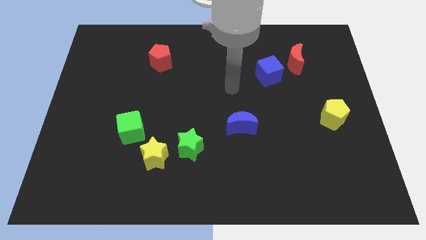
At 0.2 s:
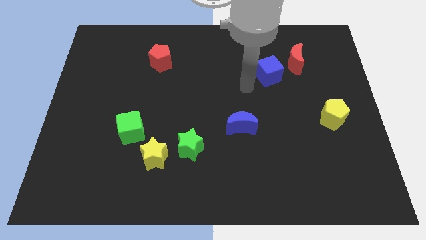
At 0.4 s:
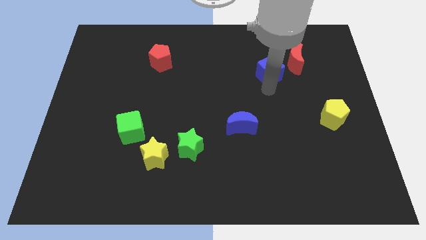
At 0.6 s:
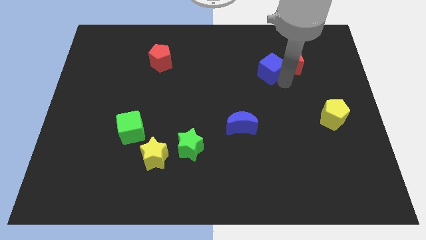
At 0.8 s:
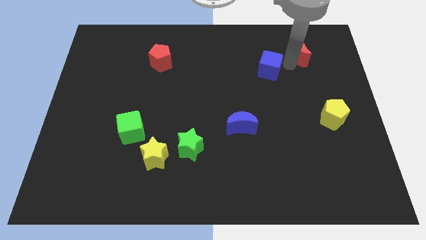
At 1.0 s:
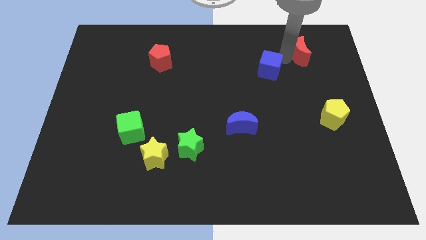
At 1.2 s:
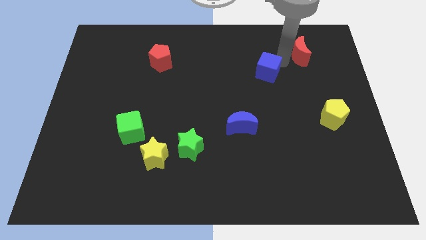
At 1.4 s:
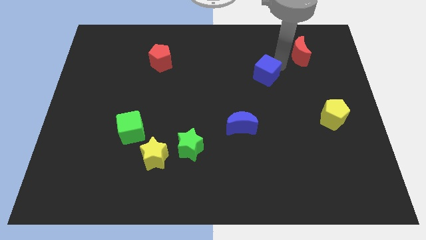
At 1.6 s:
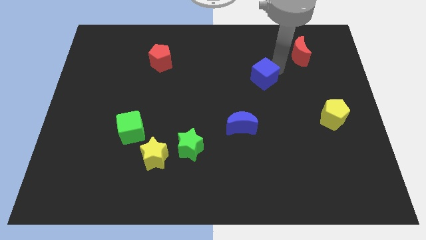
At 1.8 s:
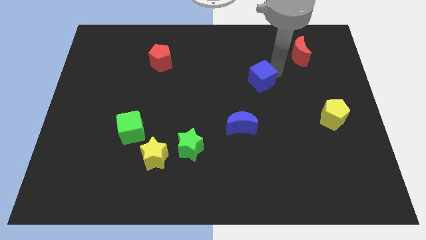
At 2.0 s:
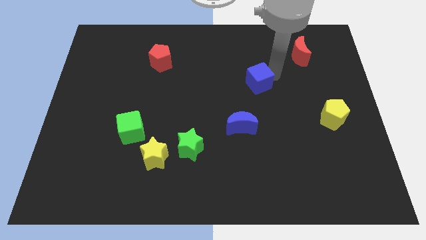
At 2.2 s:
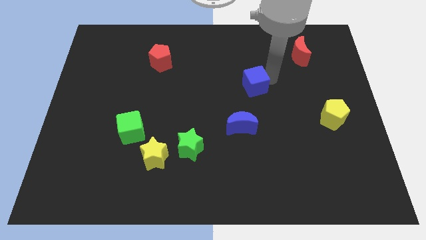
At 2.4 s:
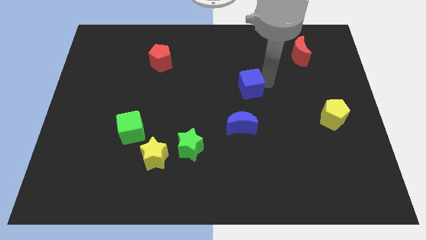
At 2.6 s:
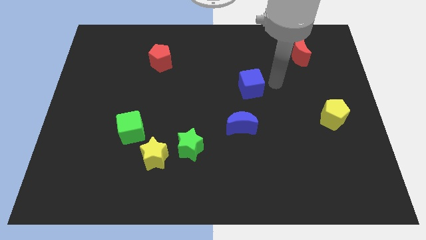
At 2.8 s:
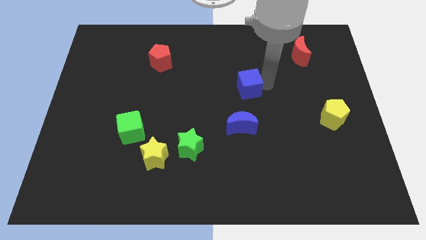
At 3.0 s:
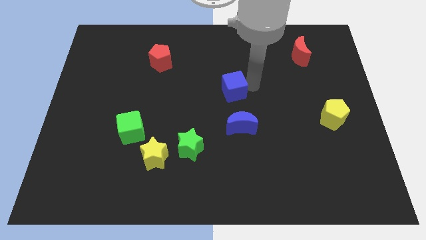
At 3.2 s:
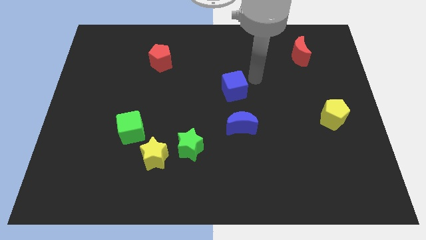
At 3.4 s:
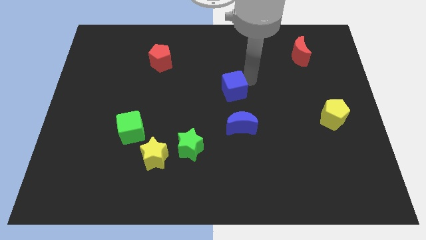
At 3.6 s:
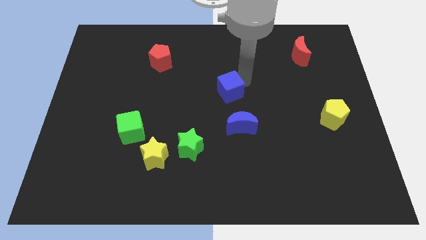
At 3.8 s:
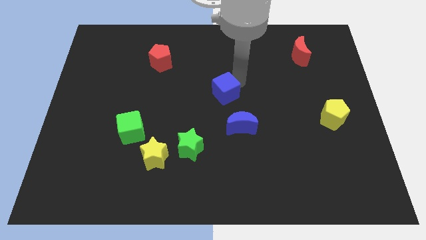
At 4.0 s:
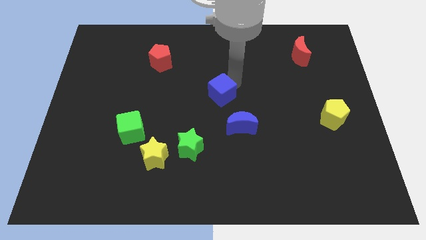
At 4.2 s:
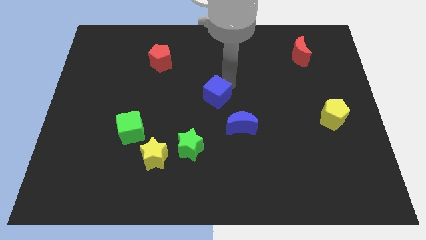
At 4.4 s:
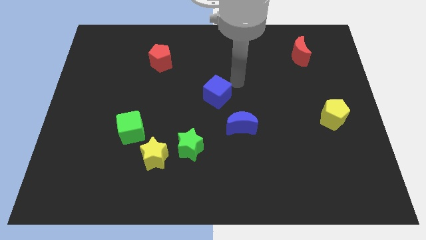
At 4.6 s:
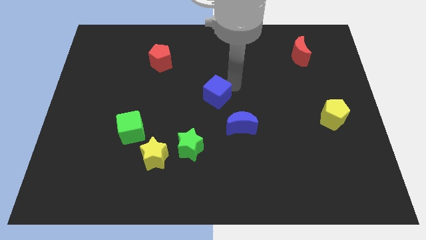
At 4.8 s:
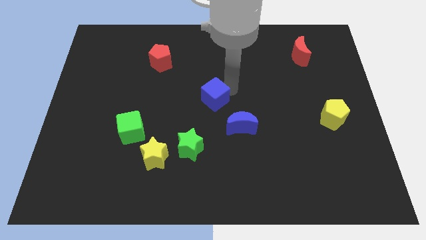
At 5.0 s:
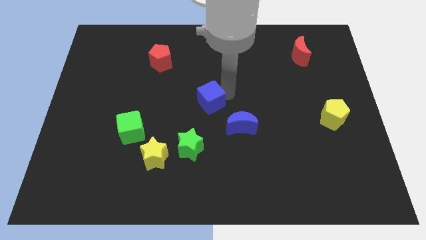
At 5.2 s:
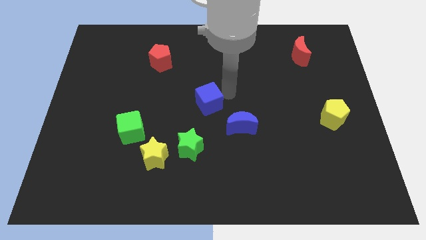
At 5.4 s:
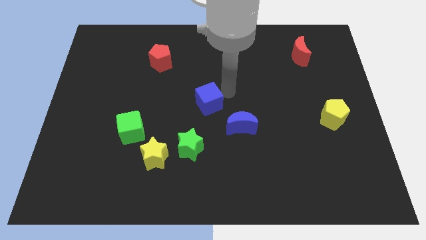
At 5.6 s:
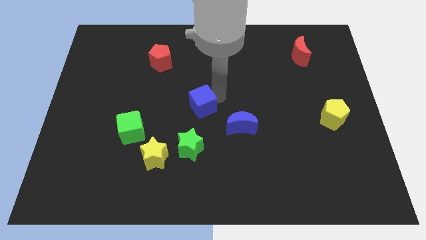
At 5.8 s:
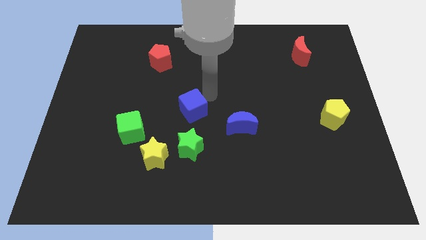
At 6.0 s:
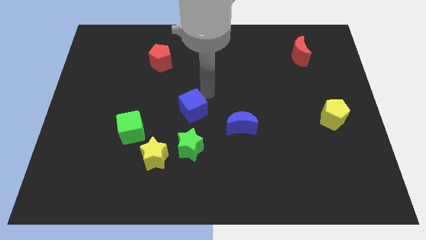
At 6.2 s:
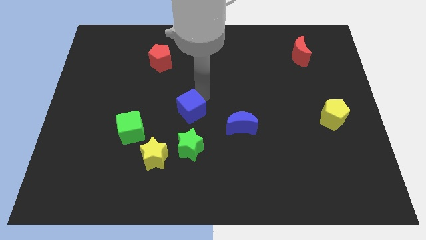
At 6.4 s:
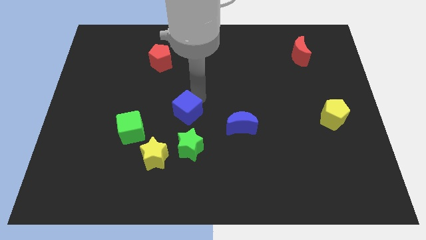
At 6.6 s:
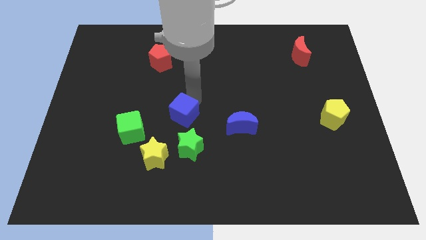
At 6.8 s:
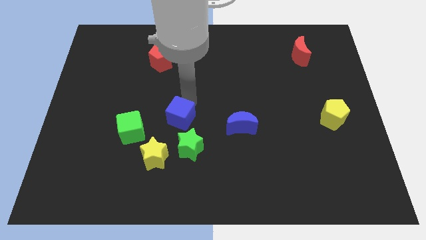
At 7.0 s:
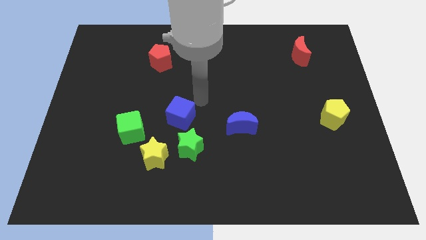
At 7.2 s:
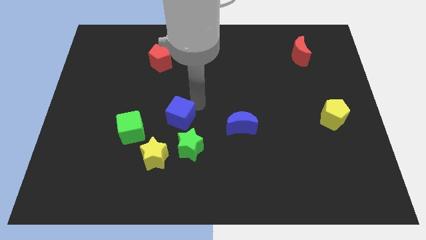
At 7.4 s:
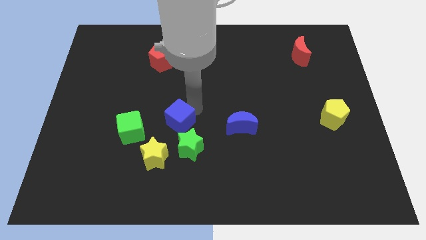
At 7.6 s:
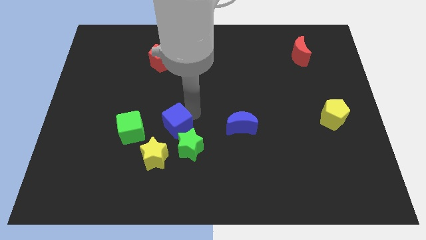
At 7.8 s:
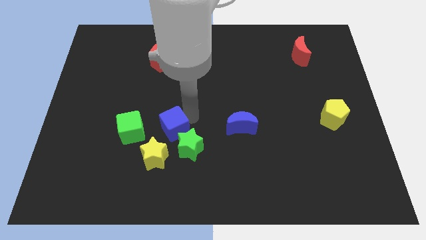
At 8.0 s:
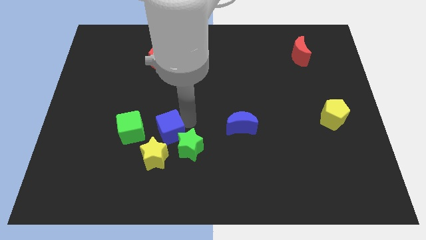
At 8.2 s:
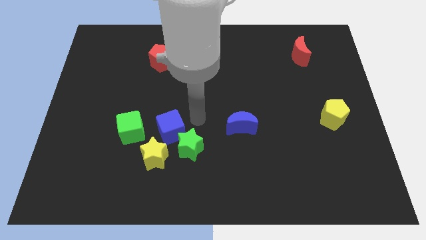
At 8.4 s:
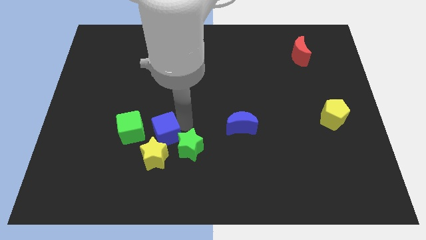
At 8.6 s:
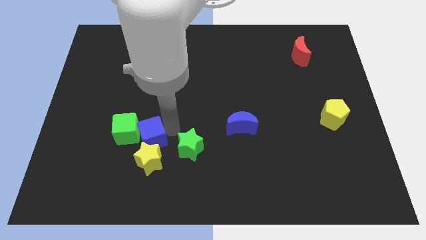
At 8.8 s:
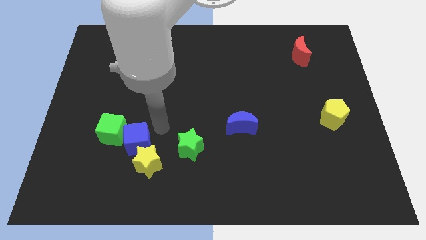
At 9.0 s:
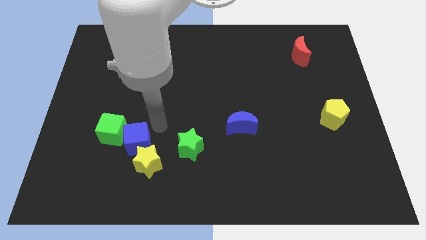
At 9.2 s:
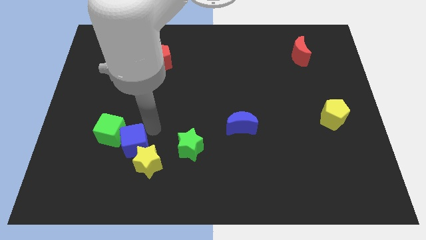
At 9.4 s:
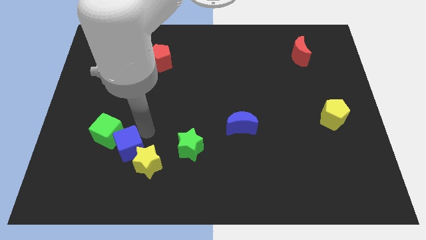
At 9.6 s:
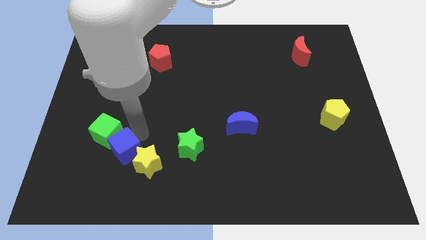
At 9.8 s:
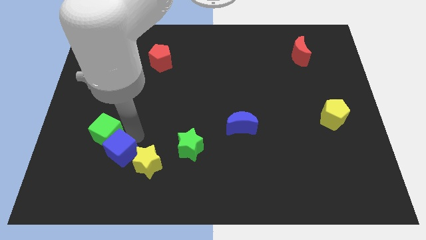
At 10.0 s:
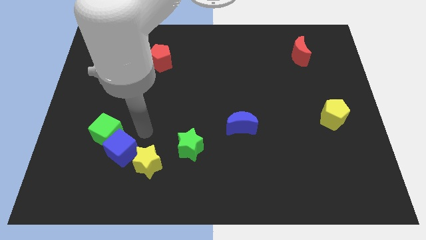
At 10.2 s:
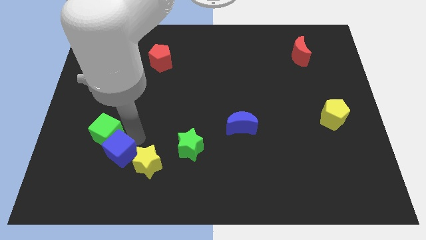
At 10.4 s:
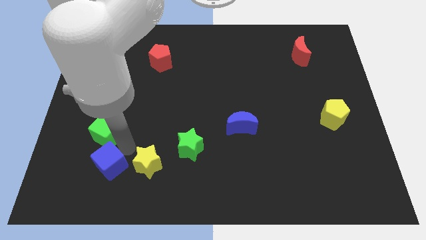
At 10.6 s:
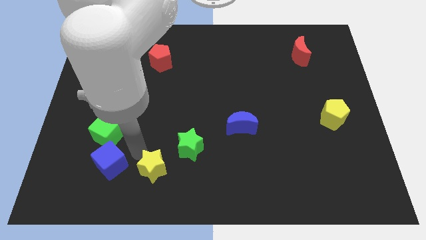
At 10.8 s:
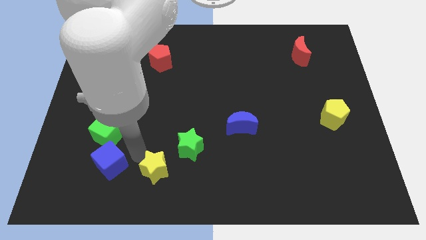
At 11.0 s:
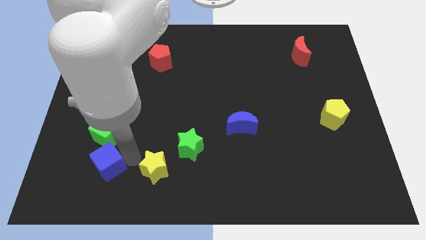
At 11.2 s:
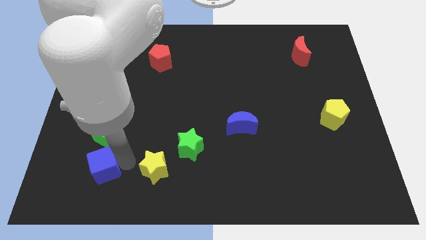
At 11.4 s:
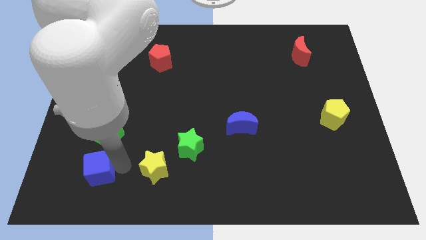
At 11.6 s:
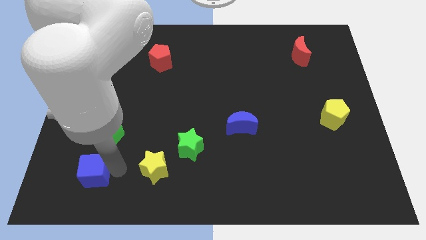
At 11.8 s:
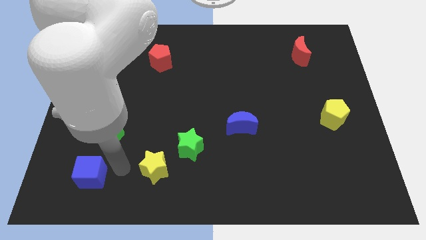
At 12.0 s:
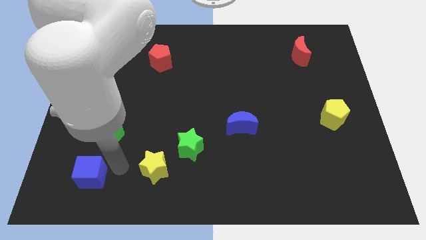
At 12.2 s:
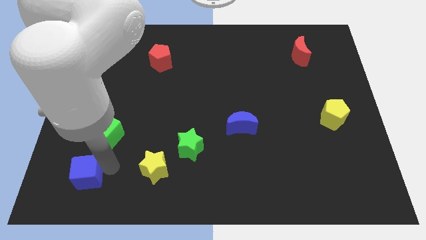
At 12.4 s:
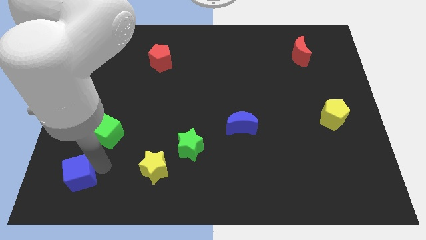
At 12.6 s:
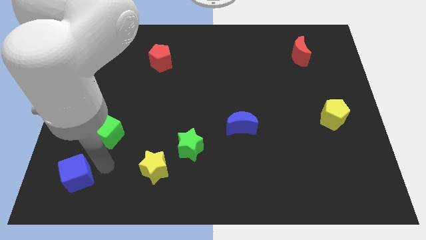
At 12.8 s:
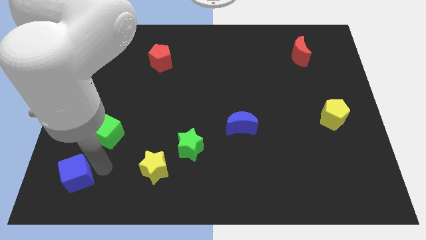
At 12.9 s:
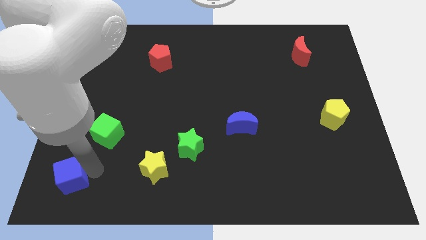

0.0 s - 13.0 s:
slide the blue cube to the lower left corner
